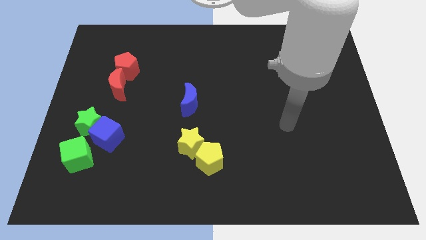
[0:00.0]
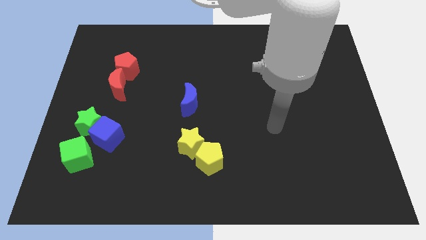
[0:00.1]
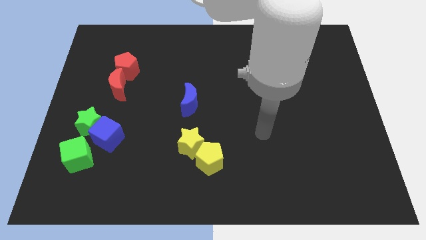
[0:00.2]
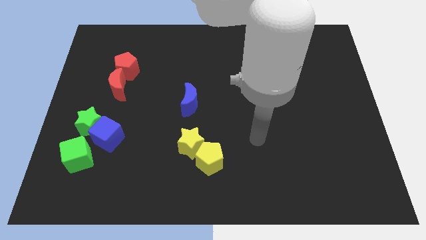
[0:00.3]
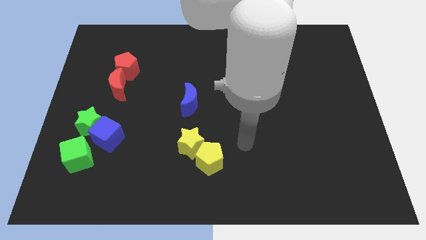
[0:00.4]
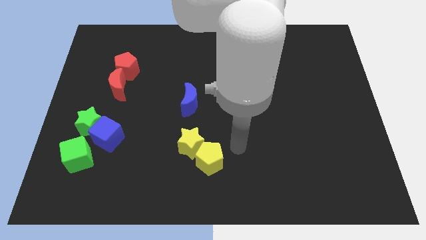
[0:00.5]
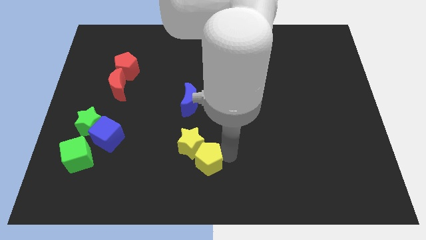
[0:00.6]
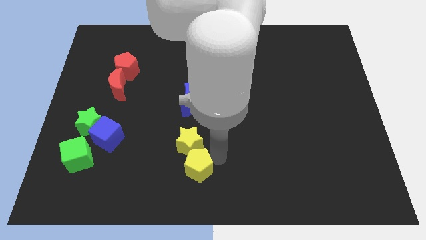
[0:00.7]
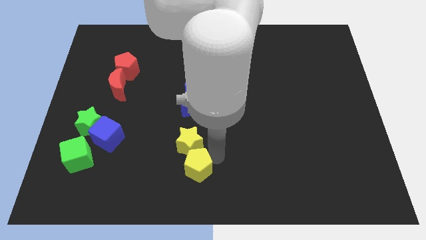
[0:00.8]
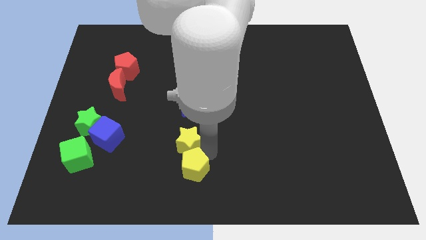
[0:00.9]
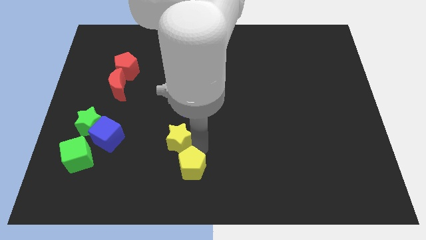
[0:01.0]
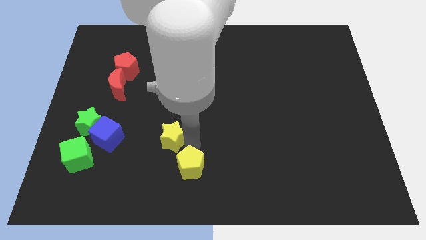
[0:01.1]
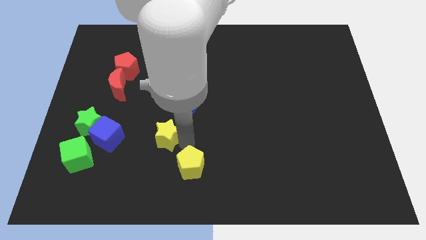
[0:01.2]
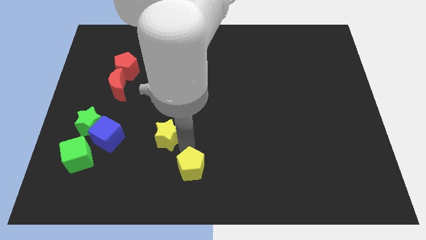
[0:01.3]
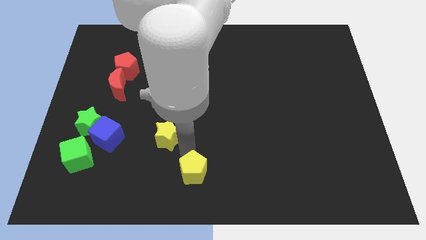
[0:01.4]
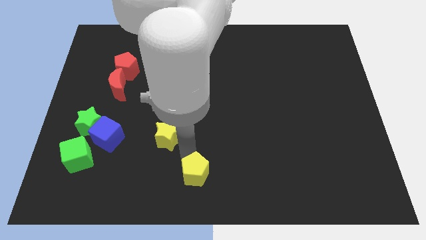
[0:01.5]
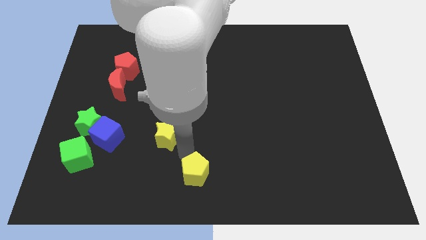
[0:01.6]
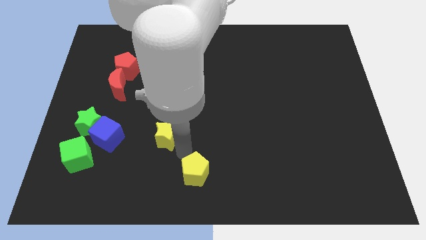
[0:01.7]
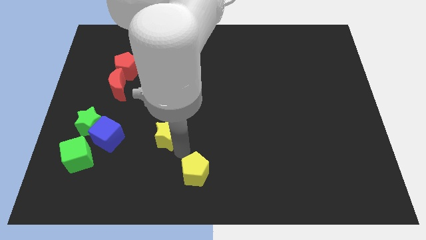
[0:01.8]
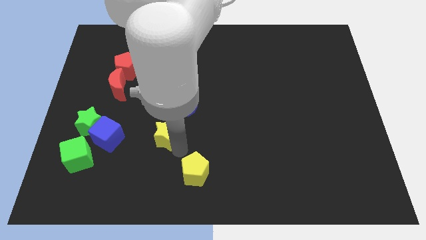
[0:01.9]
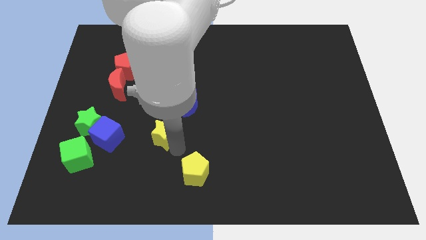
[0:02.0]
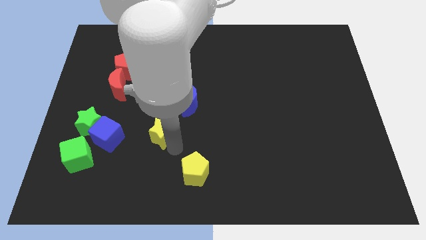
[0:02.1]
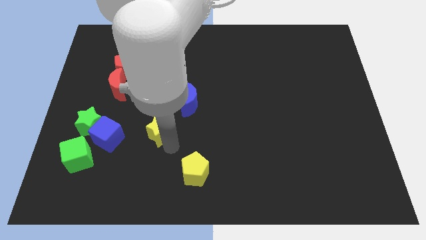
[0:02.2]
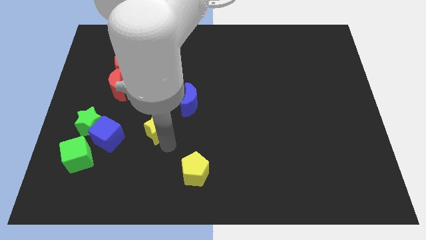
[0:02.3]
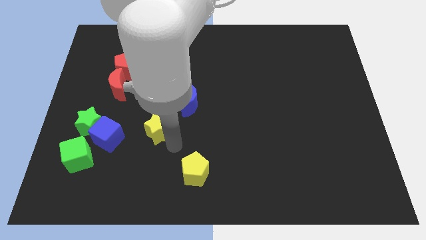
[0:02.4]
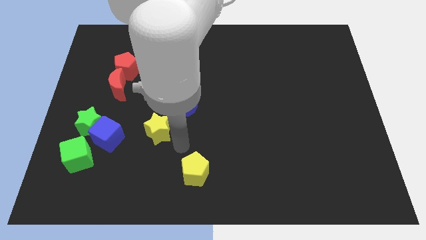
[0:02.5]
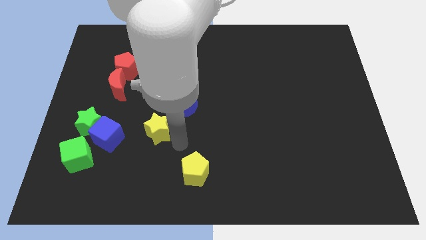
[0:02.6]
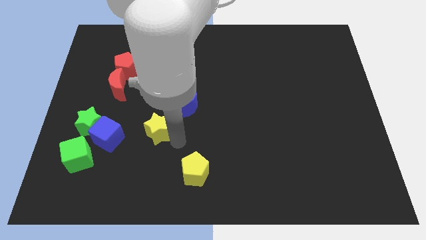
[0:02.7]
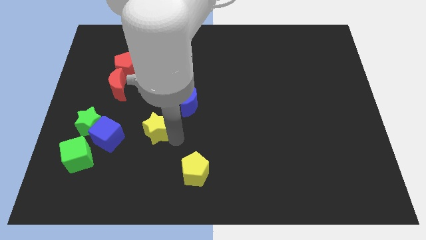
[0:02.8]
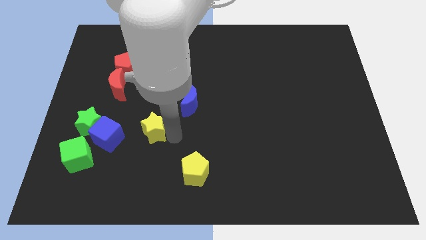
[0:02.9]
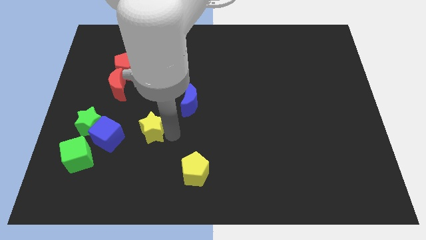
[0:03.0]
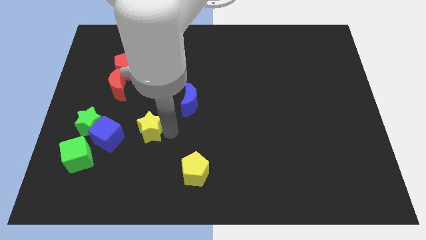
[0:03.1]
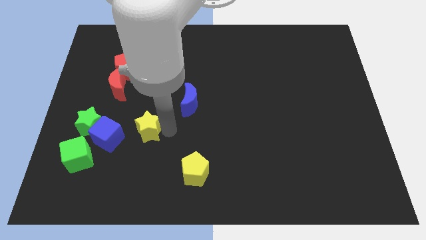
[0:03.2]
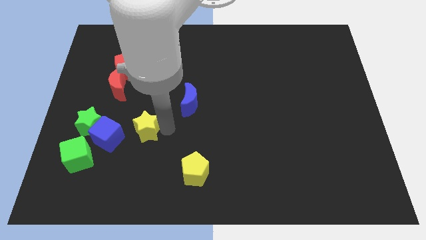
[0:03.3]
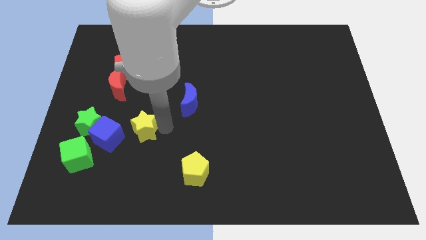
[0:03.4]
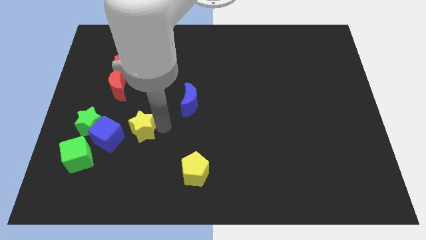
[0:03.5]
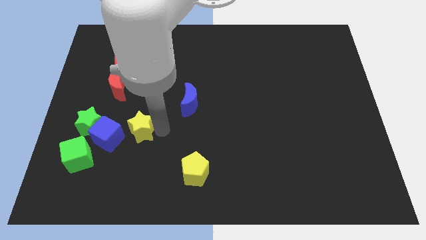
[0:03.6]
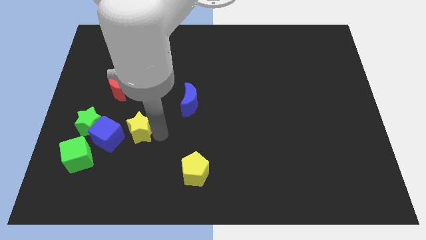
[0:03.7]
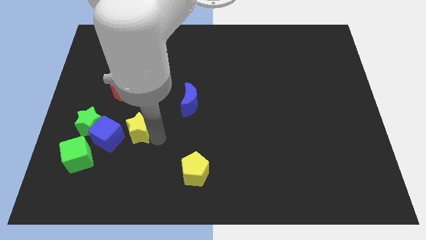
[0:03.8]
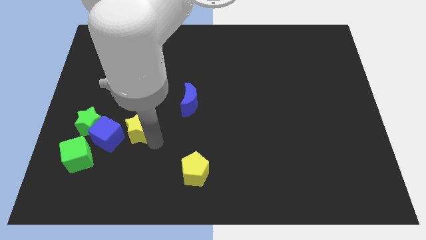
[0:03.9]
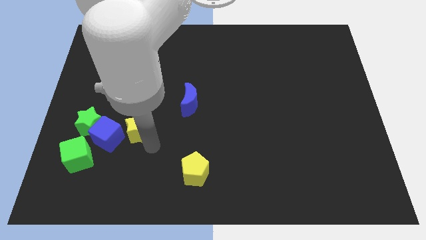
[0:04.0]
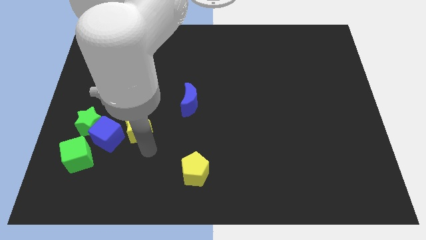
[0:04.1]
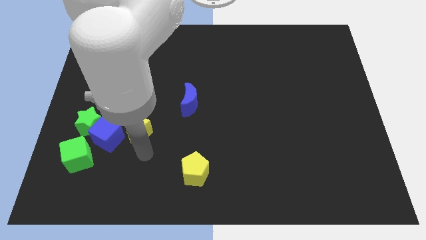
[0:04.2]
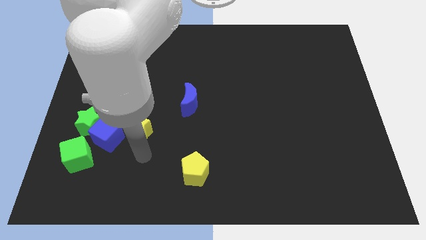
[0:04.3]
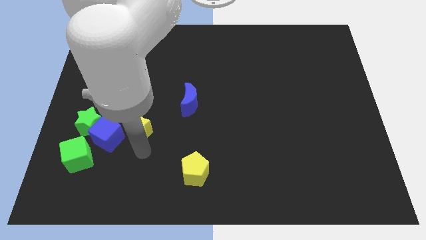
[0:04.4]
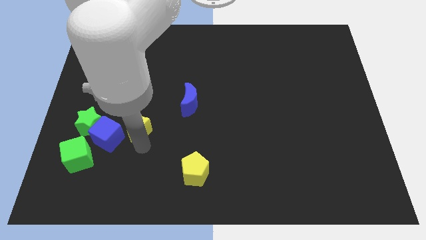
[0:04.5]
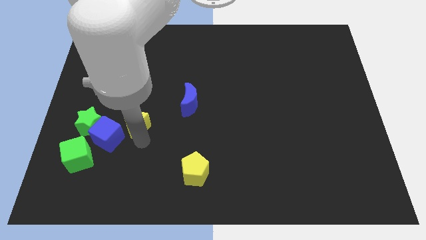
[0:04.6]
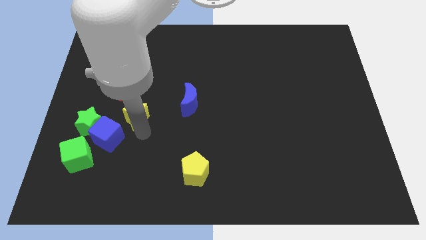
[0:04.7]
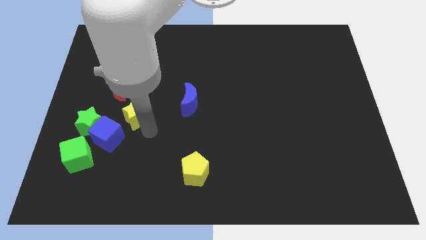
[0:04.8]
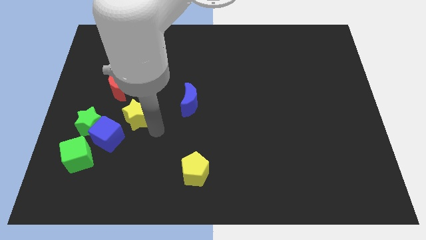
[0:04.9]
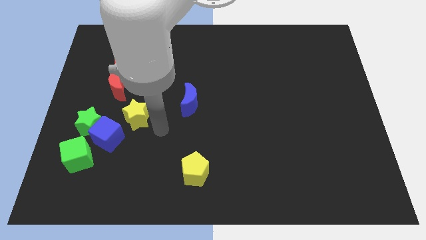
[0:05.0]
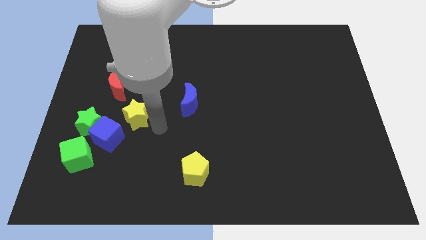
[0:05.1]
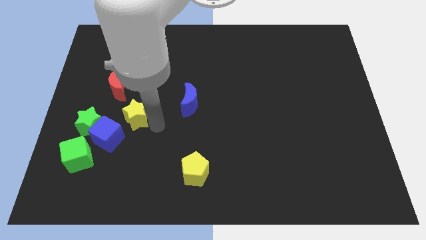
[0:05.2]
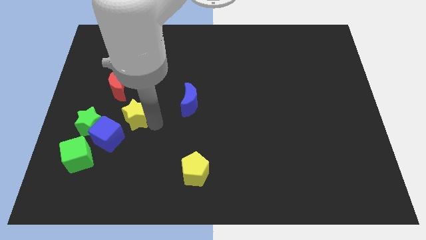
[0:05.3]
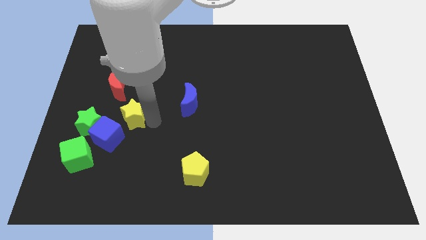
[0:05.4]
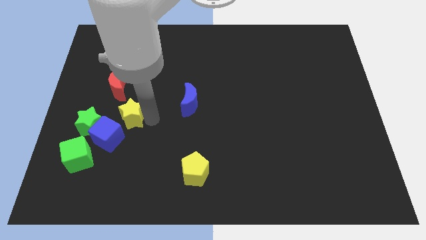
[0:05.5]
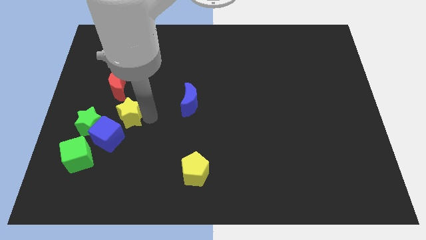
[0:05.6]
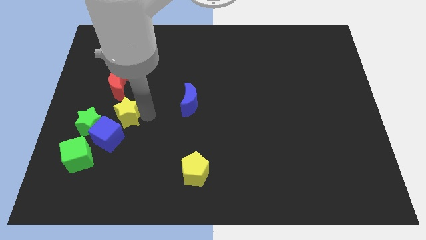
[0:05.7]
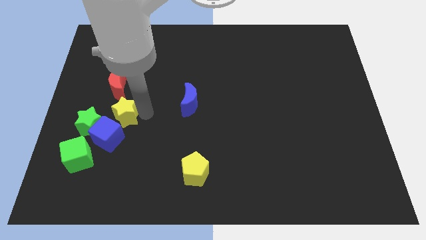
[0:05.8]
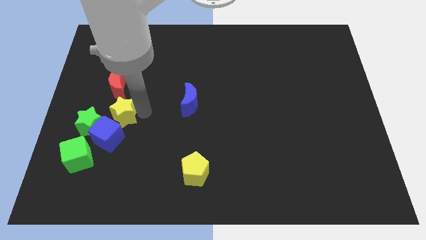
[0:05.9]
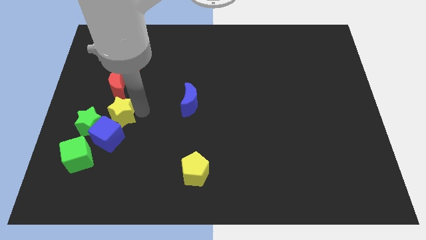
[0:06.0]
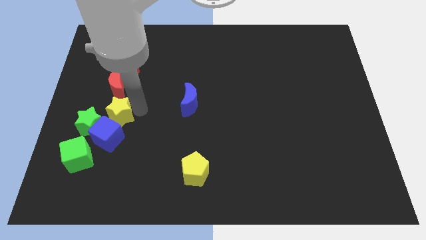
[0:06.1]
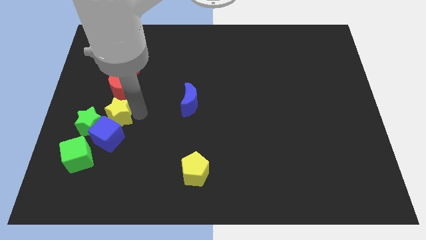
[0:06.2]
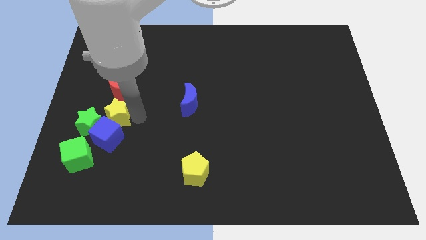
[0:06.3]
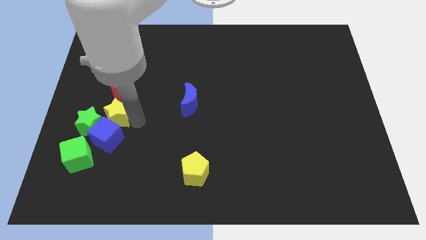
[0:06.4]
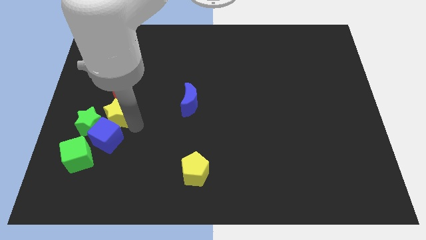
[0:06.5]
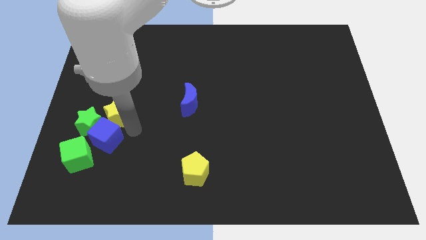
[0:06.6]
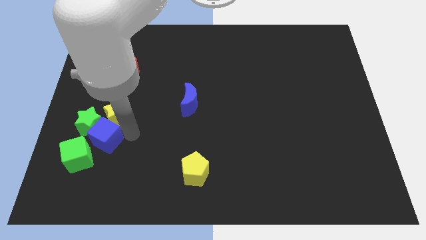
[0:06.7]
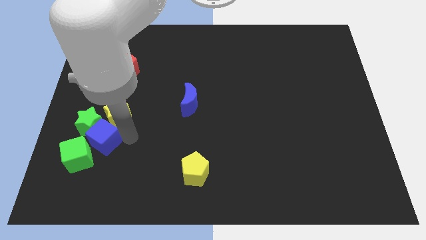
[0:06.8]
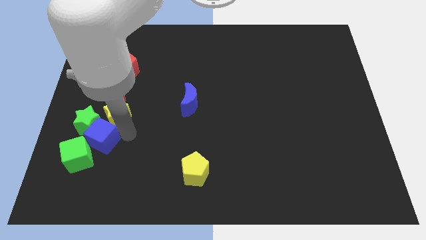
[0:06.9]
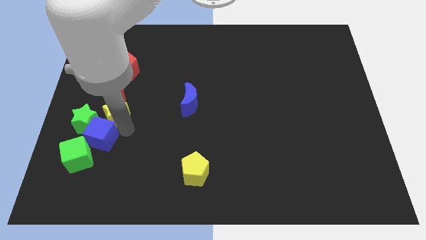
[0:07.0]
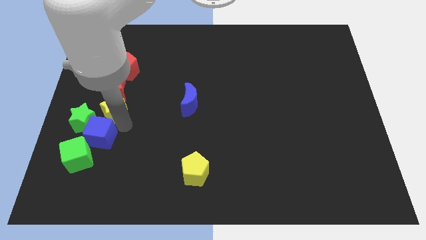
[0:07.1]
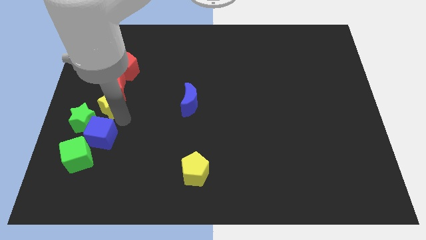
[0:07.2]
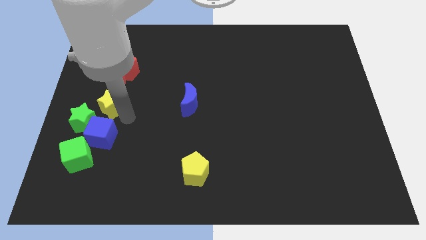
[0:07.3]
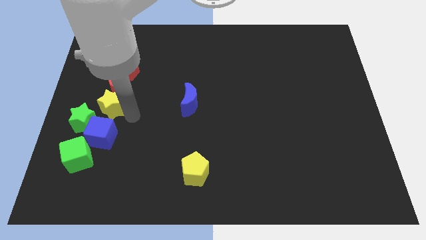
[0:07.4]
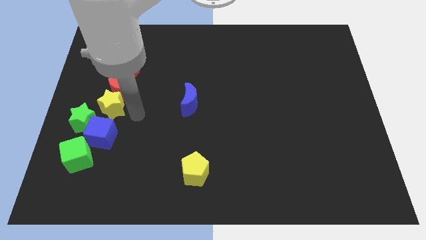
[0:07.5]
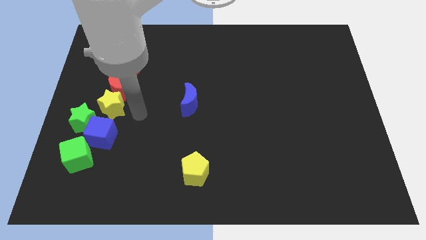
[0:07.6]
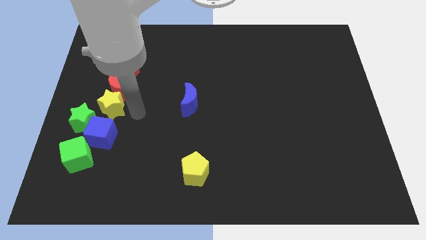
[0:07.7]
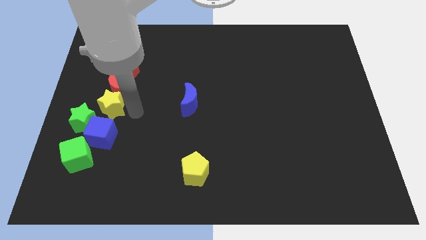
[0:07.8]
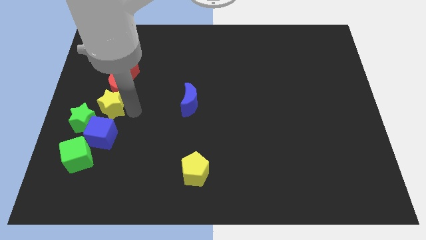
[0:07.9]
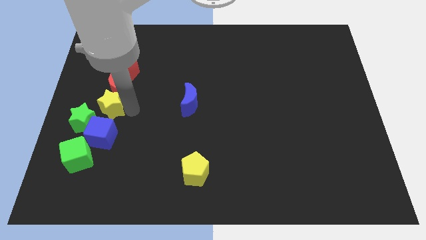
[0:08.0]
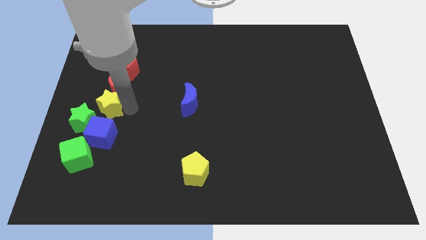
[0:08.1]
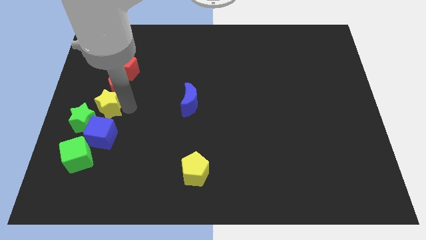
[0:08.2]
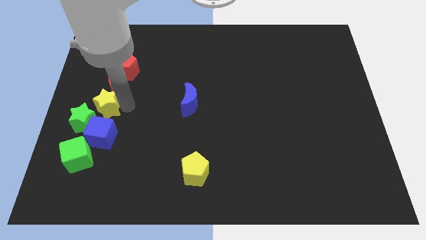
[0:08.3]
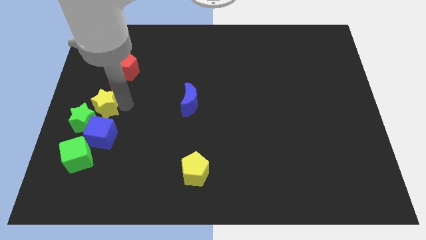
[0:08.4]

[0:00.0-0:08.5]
move the yellow star to the left side of the board
